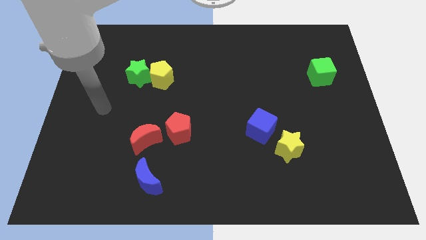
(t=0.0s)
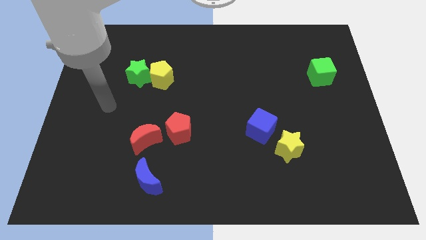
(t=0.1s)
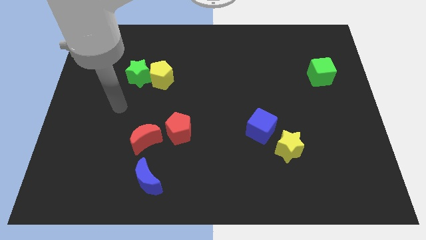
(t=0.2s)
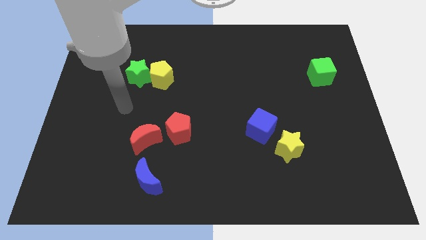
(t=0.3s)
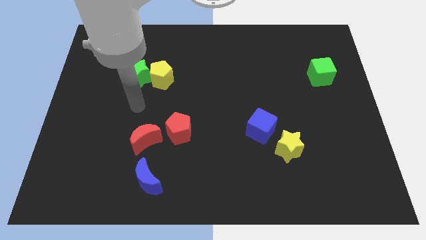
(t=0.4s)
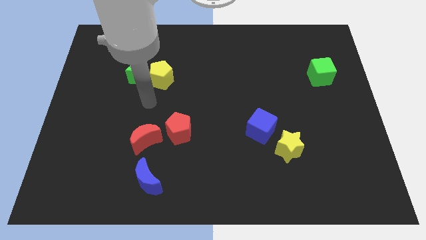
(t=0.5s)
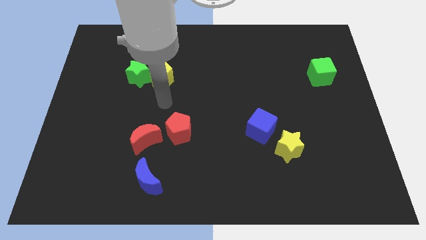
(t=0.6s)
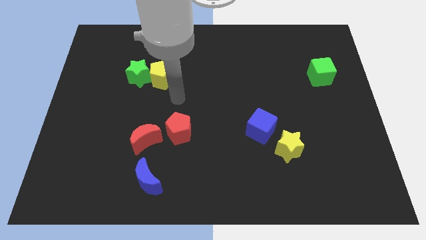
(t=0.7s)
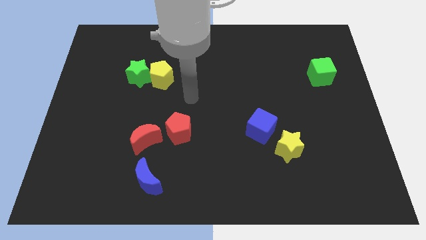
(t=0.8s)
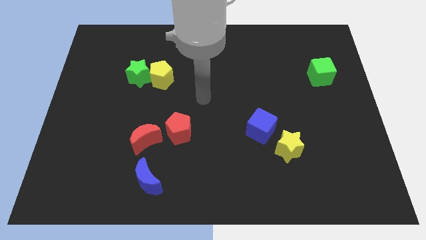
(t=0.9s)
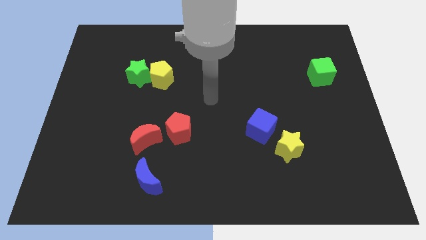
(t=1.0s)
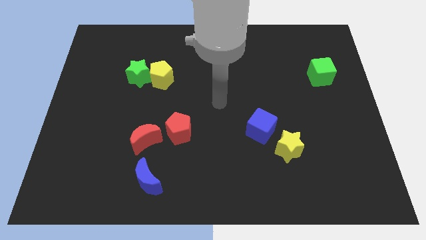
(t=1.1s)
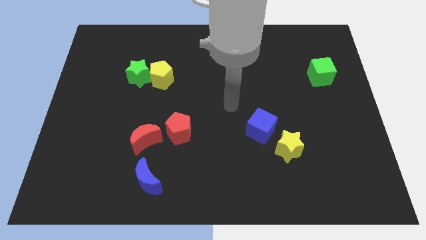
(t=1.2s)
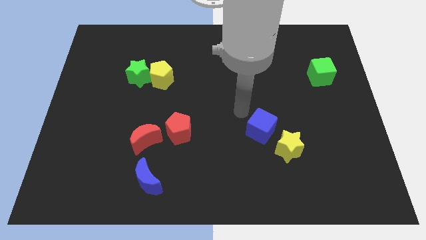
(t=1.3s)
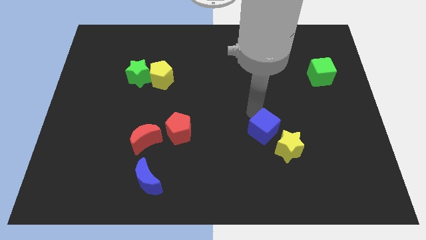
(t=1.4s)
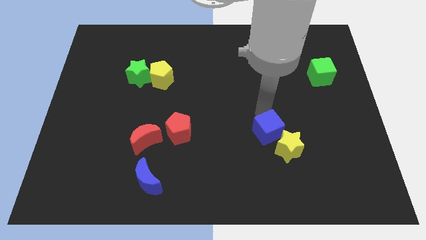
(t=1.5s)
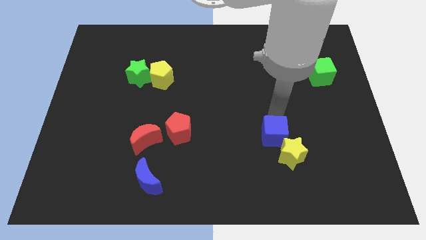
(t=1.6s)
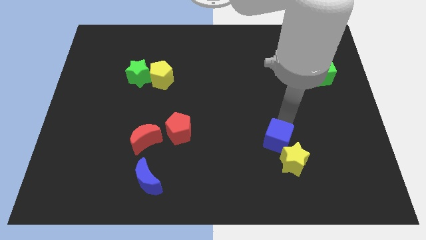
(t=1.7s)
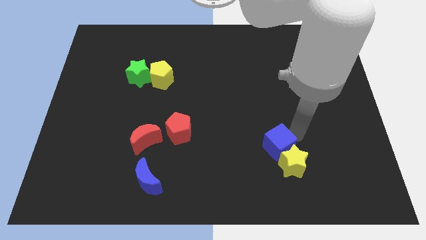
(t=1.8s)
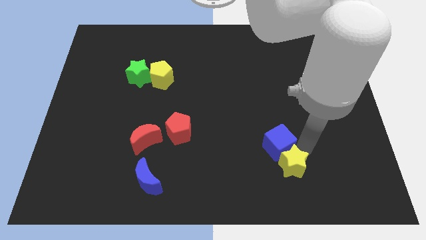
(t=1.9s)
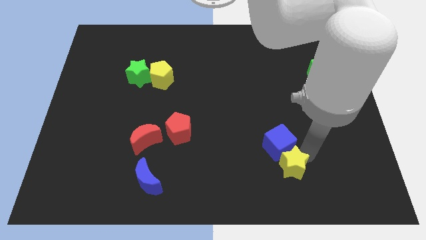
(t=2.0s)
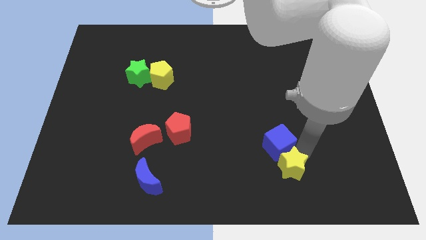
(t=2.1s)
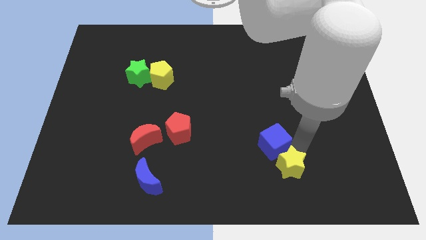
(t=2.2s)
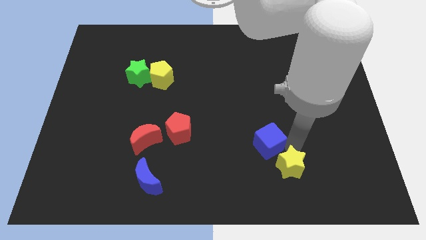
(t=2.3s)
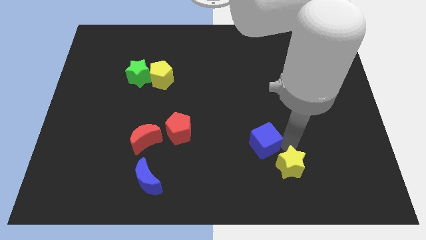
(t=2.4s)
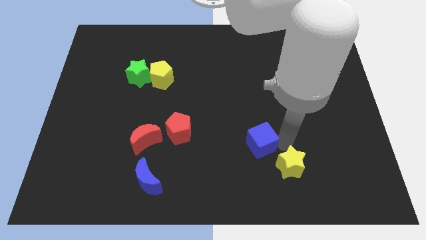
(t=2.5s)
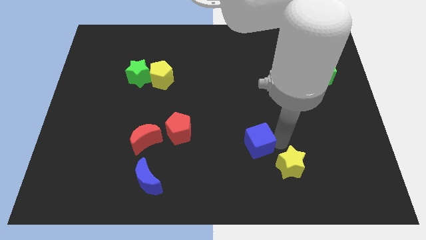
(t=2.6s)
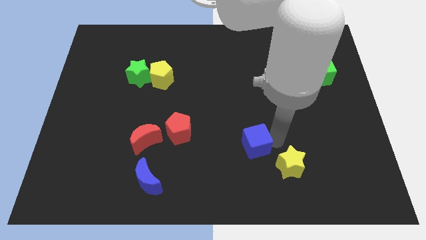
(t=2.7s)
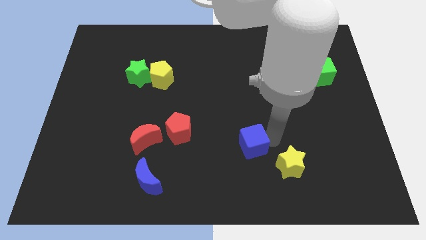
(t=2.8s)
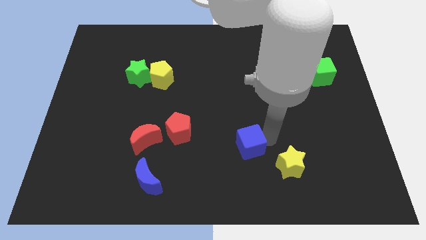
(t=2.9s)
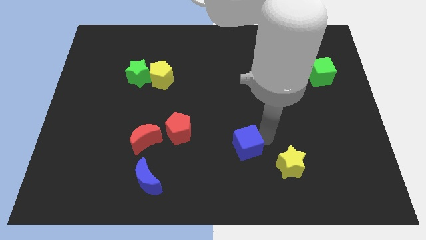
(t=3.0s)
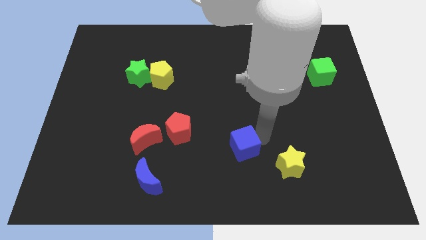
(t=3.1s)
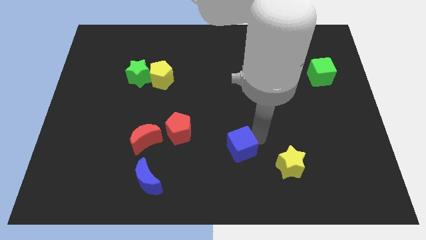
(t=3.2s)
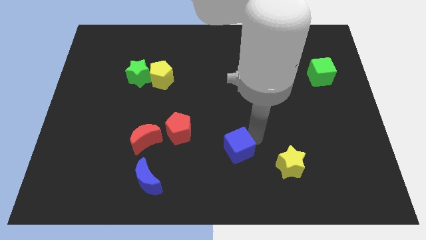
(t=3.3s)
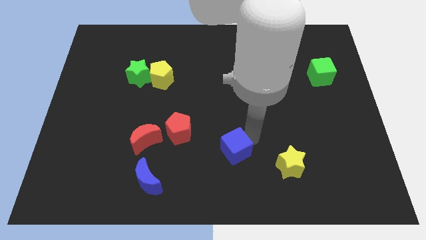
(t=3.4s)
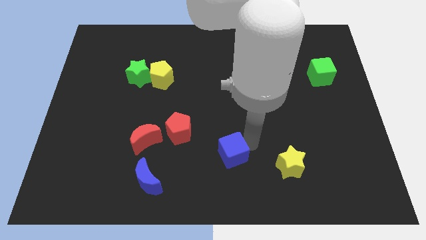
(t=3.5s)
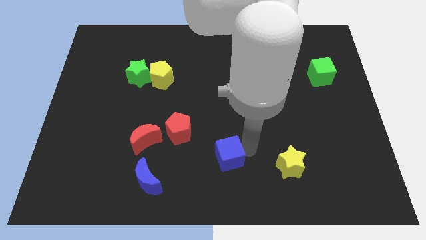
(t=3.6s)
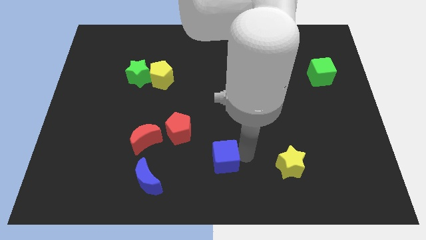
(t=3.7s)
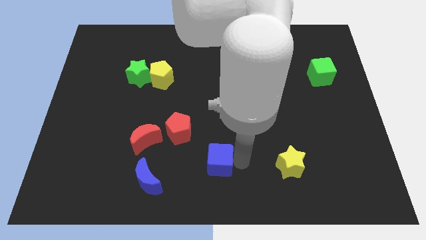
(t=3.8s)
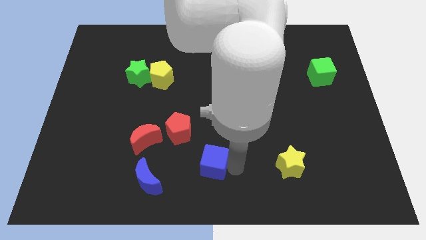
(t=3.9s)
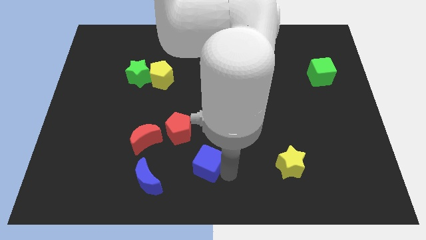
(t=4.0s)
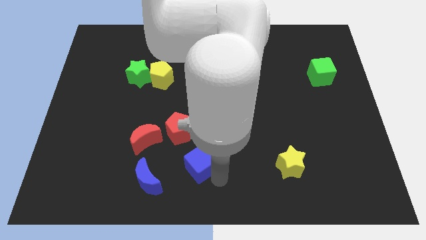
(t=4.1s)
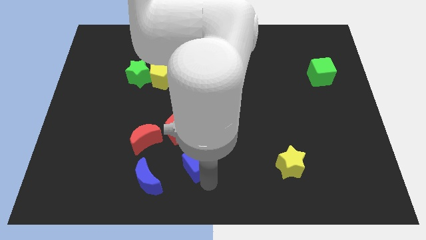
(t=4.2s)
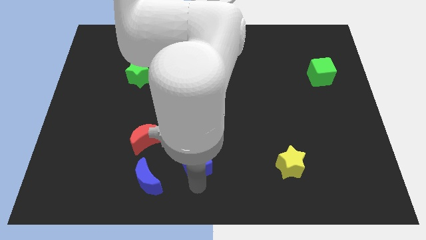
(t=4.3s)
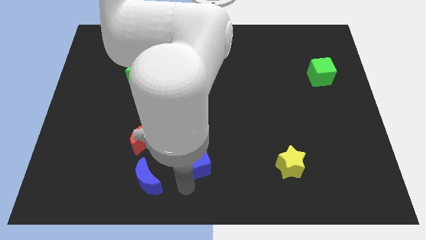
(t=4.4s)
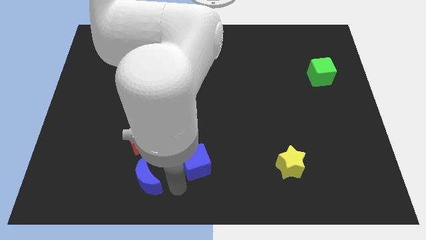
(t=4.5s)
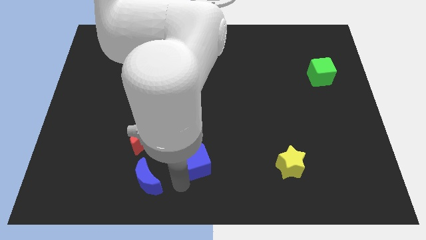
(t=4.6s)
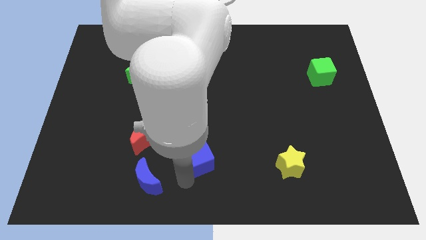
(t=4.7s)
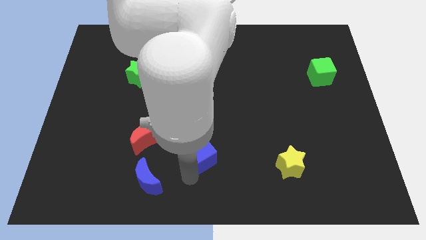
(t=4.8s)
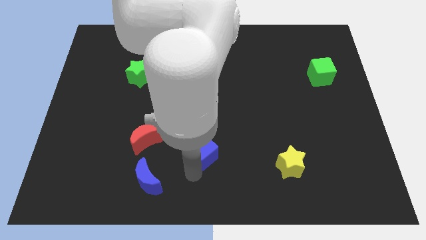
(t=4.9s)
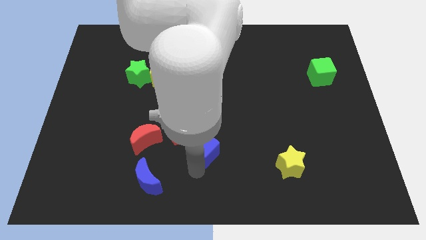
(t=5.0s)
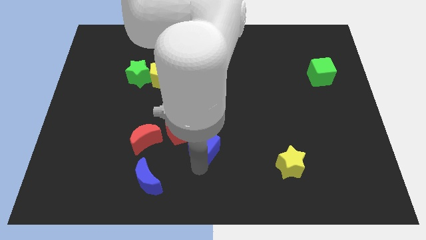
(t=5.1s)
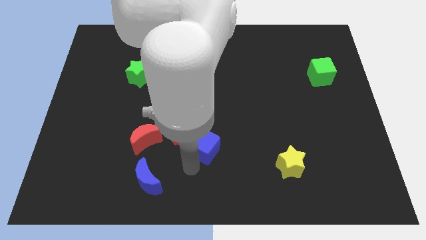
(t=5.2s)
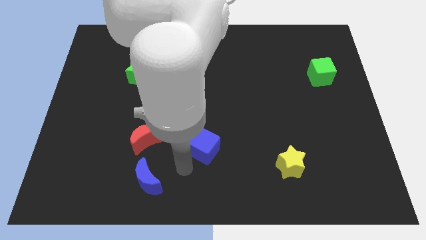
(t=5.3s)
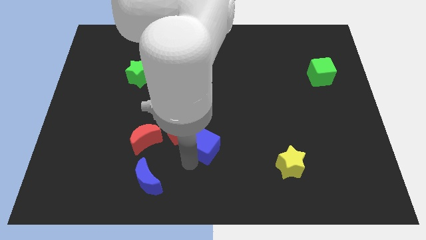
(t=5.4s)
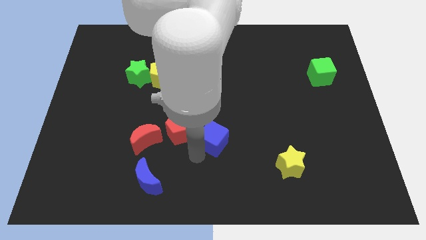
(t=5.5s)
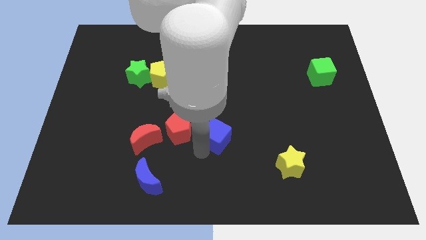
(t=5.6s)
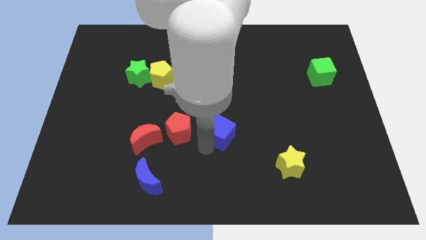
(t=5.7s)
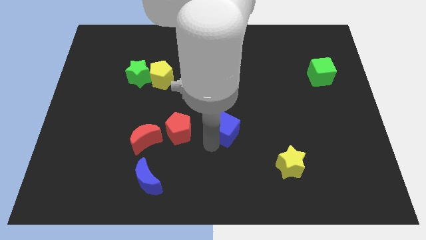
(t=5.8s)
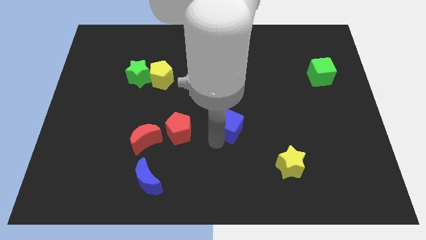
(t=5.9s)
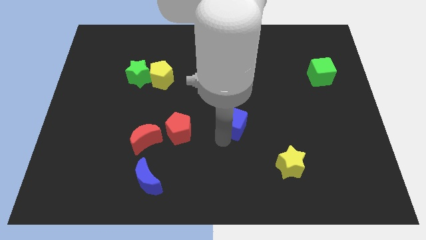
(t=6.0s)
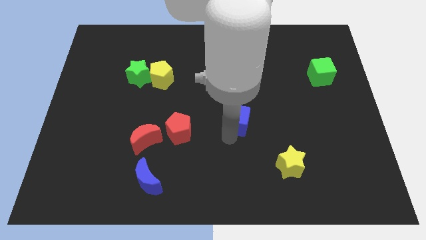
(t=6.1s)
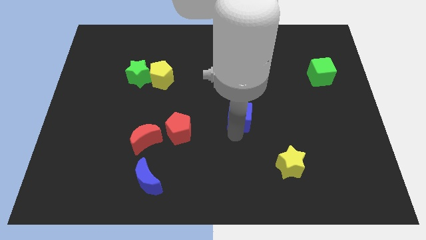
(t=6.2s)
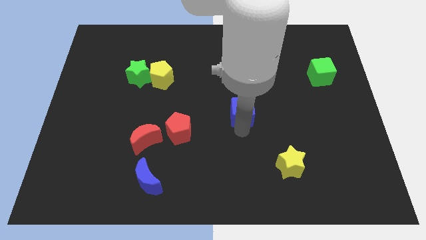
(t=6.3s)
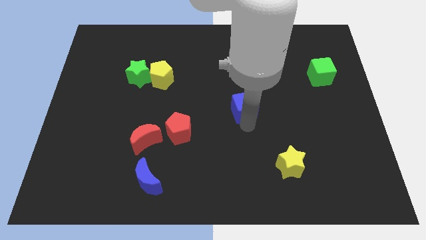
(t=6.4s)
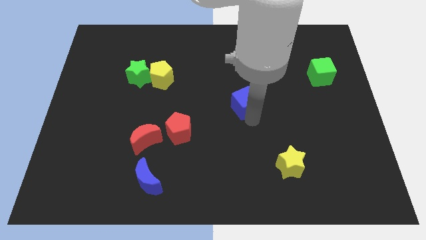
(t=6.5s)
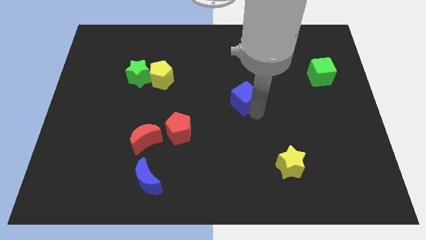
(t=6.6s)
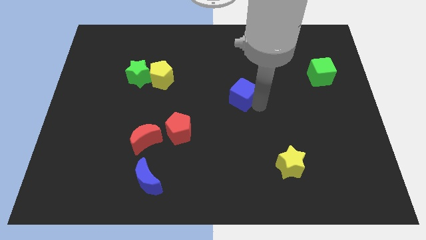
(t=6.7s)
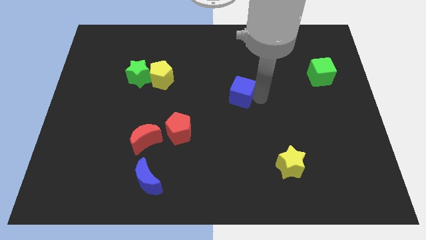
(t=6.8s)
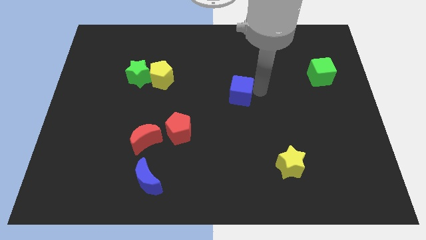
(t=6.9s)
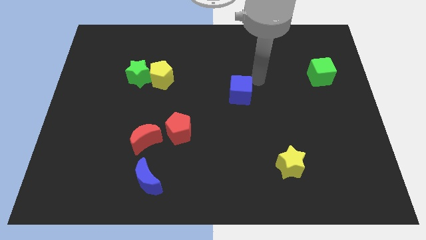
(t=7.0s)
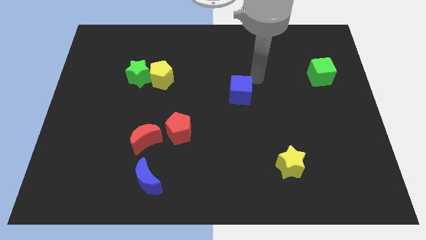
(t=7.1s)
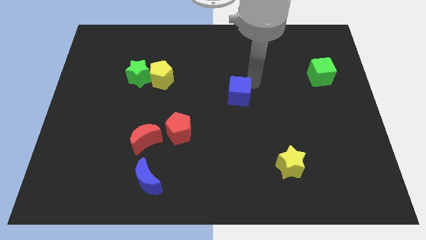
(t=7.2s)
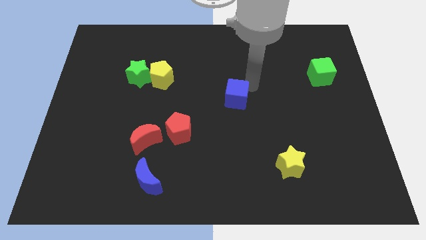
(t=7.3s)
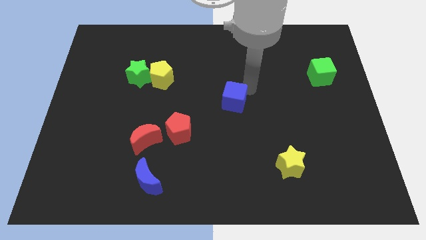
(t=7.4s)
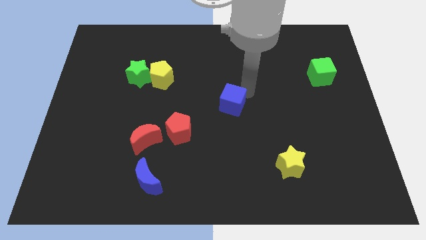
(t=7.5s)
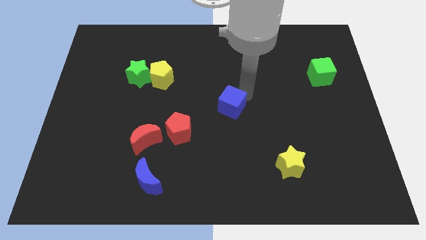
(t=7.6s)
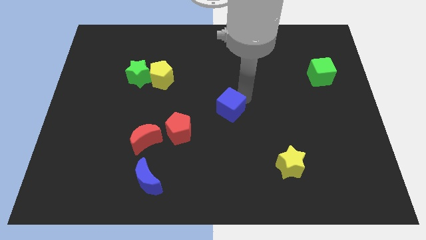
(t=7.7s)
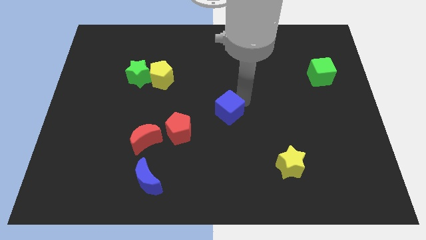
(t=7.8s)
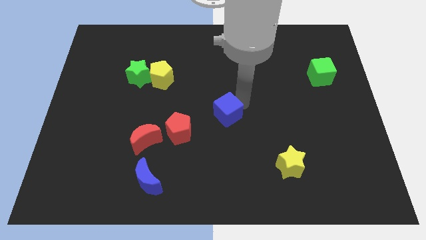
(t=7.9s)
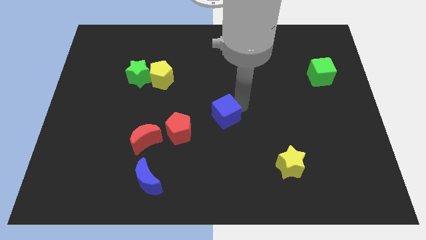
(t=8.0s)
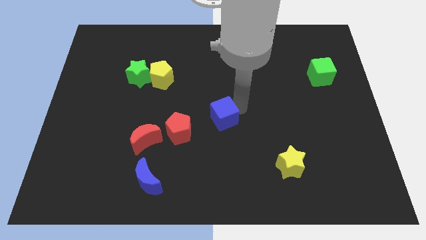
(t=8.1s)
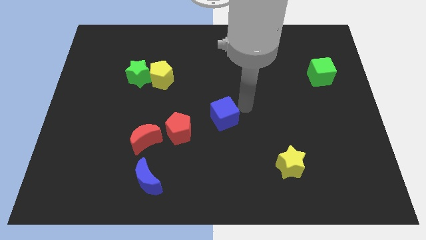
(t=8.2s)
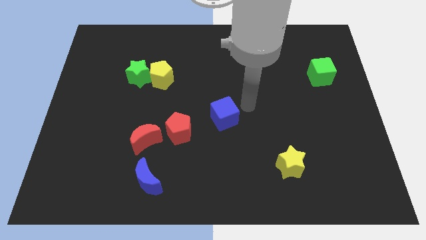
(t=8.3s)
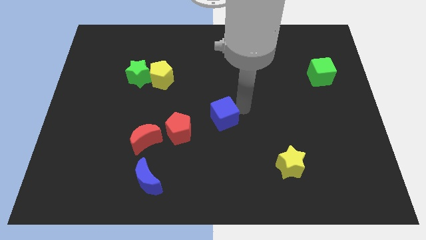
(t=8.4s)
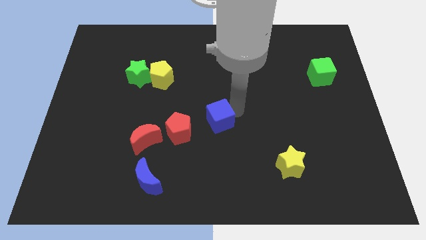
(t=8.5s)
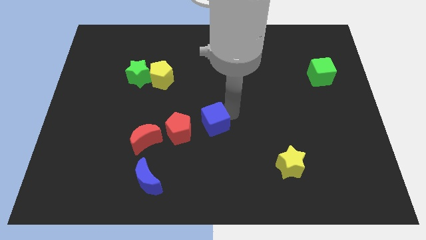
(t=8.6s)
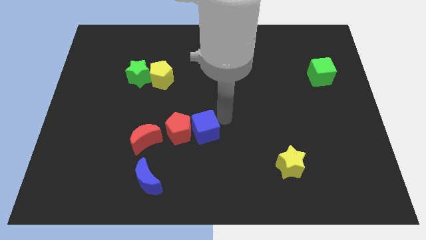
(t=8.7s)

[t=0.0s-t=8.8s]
put the blue cube towards the red pentagon
